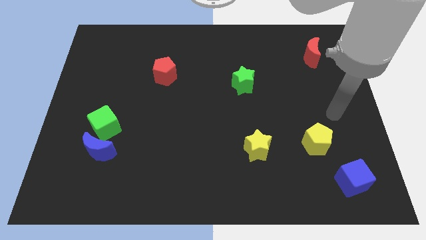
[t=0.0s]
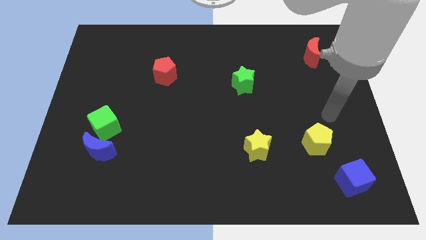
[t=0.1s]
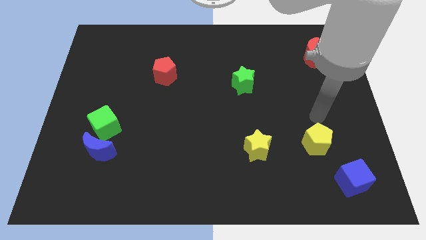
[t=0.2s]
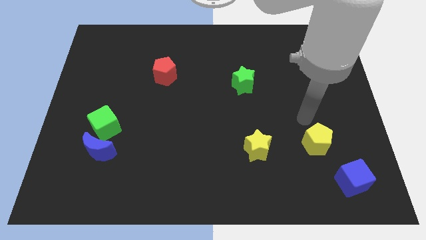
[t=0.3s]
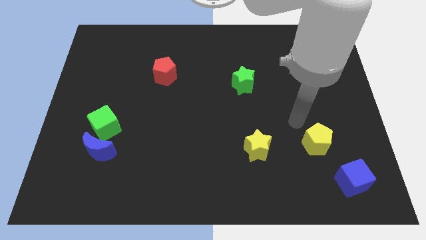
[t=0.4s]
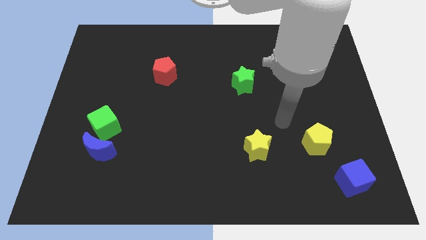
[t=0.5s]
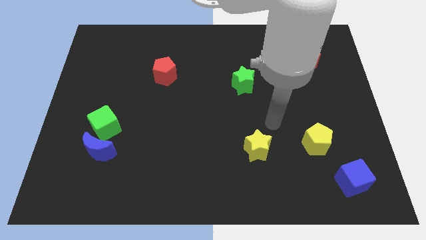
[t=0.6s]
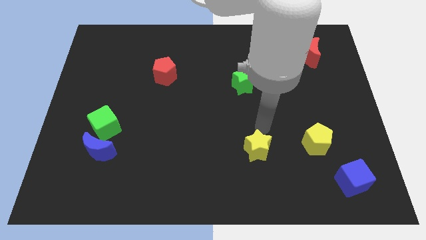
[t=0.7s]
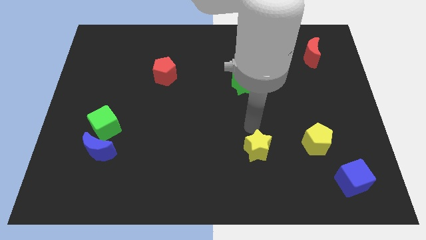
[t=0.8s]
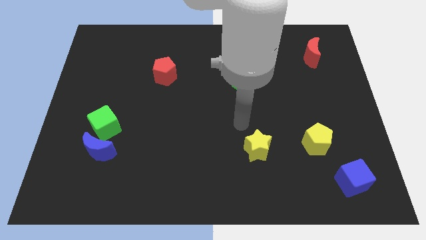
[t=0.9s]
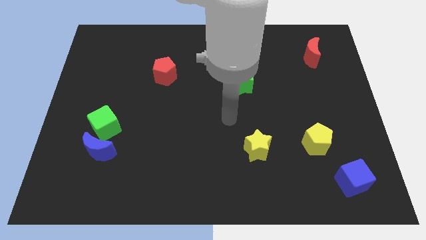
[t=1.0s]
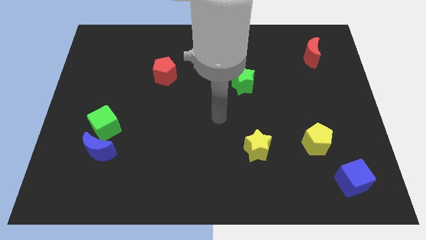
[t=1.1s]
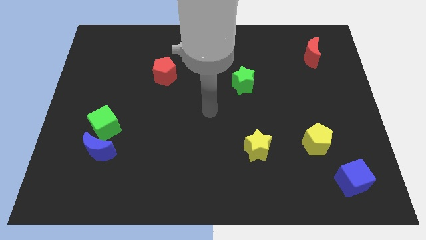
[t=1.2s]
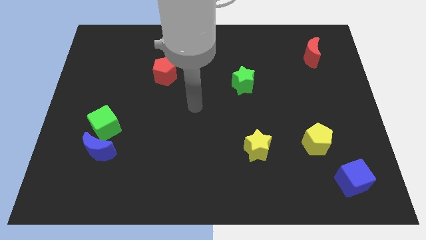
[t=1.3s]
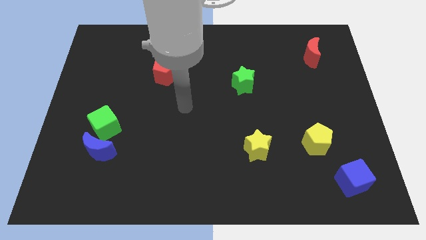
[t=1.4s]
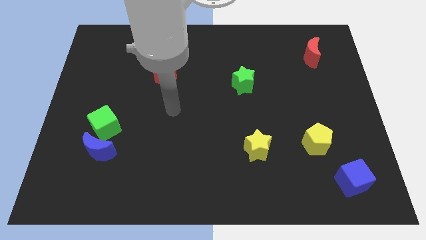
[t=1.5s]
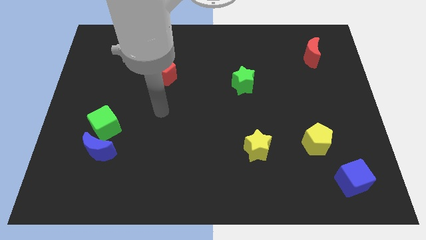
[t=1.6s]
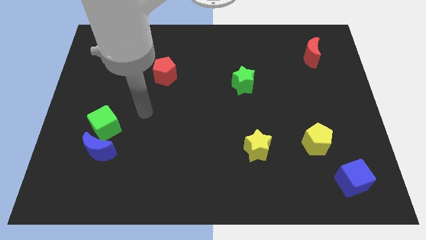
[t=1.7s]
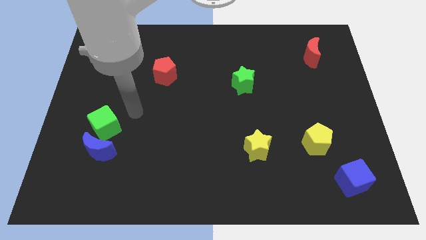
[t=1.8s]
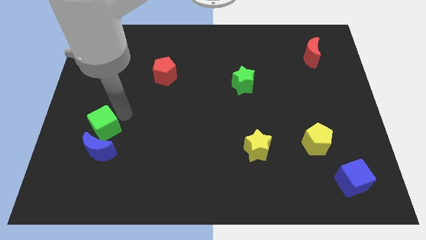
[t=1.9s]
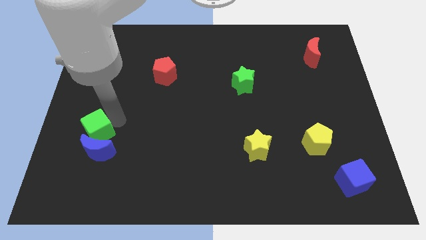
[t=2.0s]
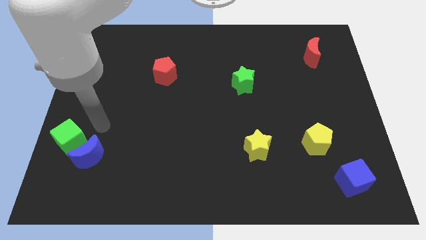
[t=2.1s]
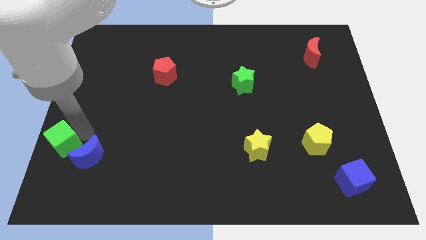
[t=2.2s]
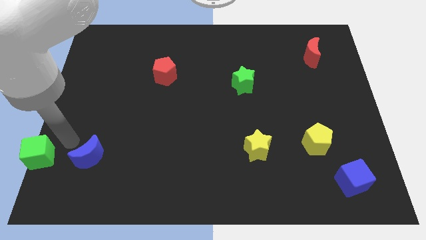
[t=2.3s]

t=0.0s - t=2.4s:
separate the blue moon from the green cube

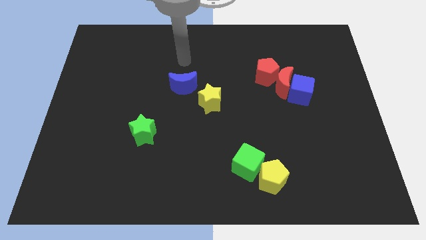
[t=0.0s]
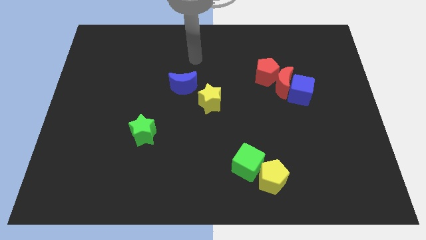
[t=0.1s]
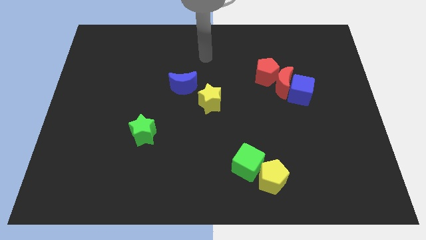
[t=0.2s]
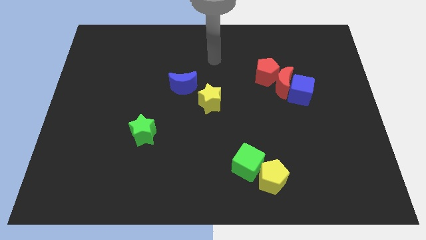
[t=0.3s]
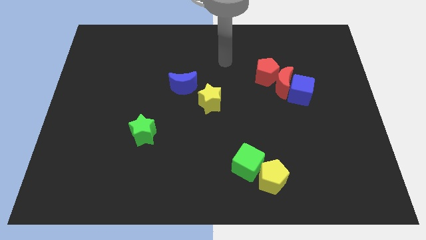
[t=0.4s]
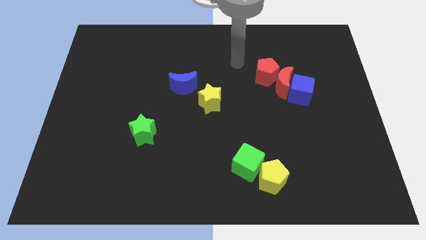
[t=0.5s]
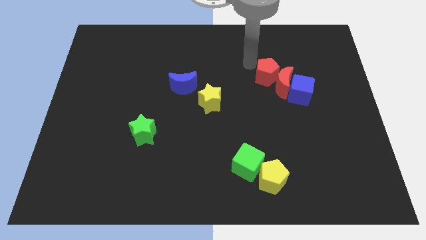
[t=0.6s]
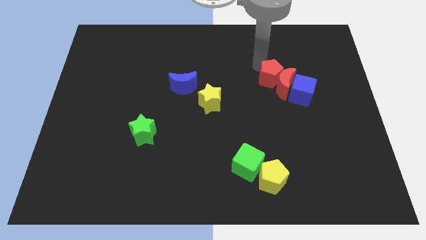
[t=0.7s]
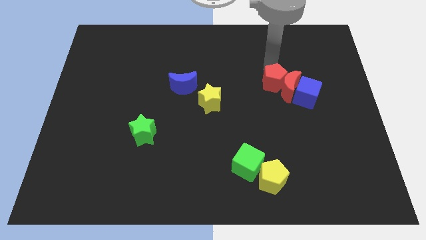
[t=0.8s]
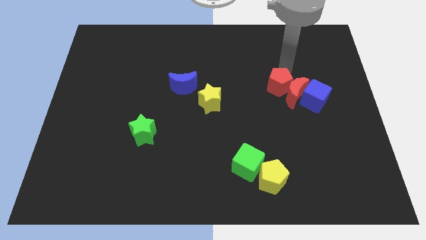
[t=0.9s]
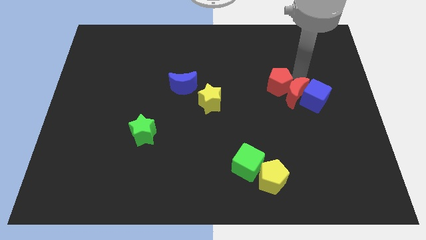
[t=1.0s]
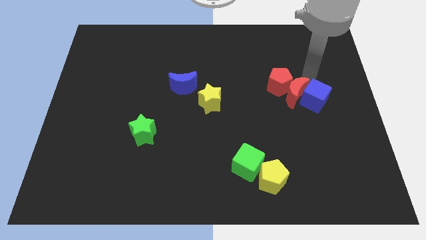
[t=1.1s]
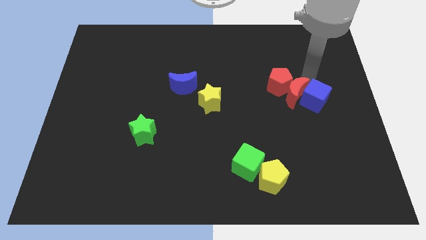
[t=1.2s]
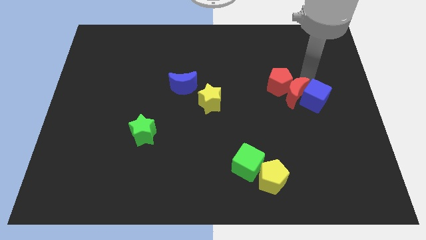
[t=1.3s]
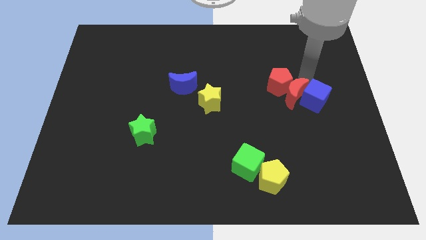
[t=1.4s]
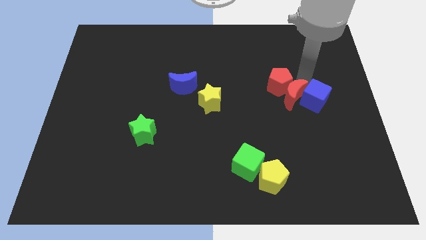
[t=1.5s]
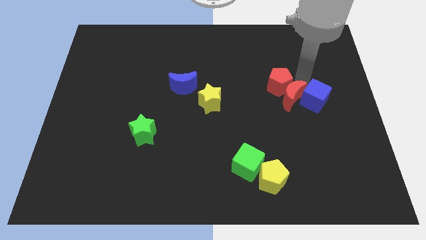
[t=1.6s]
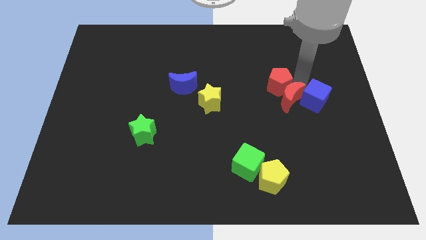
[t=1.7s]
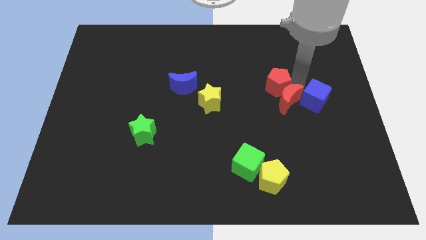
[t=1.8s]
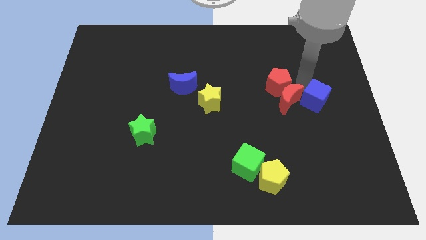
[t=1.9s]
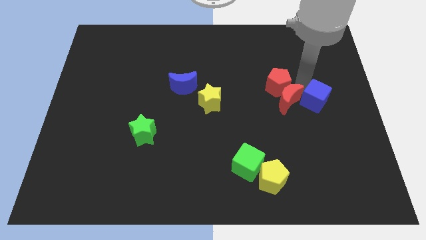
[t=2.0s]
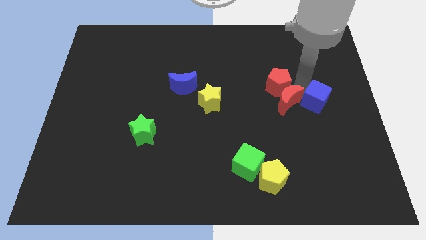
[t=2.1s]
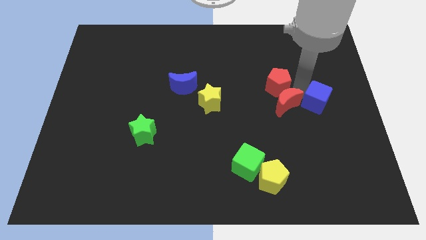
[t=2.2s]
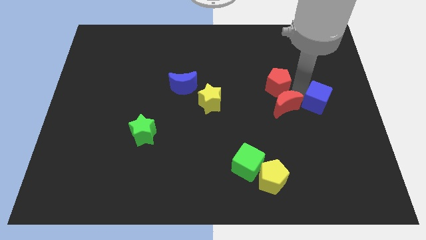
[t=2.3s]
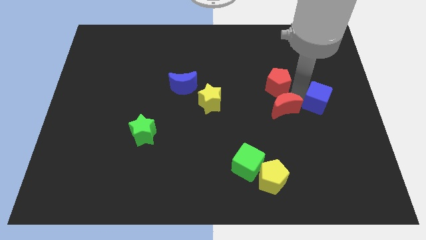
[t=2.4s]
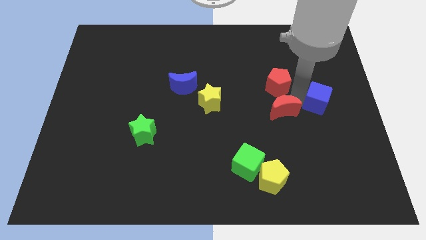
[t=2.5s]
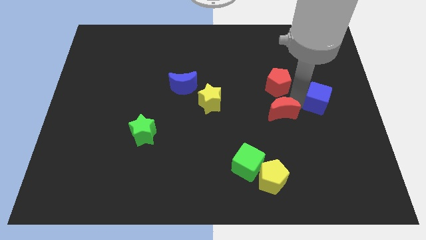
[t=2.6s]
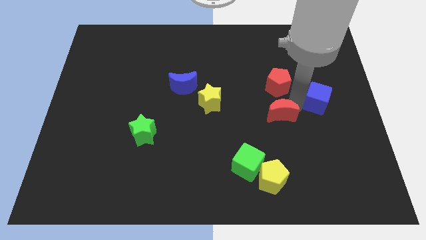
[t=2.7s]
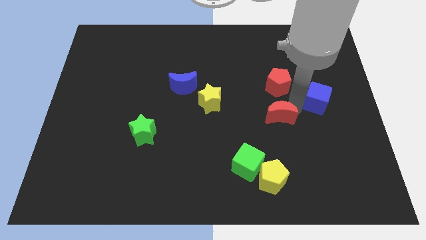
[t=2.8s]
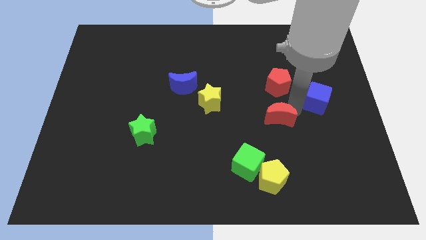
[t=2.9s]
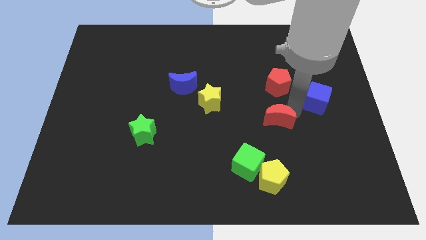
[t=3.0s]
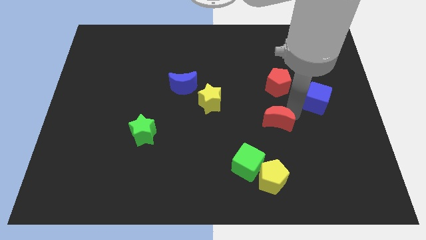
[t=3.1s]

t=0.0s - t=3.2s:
pull the red moon apart from the blue cube and red pentagon

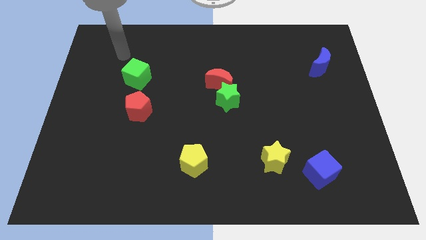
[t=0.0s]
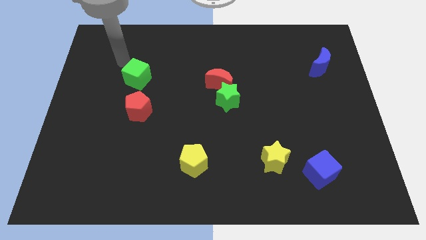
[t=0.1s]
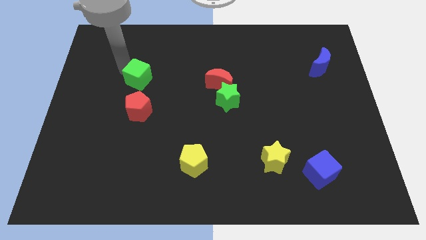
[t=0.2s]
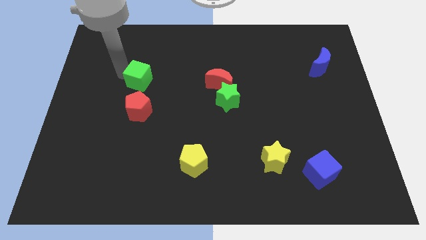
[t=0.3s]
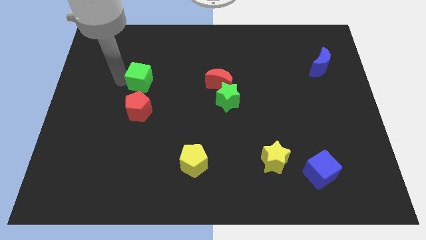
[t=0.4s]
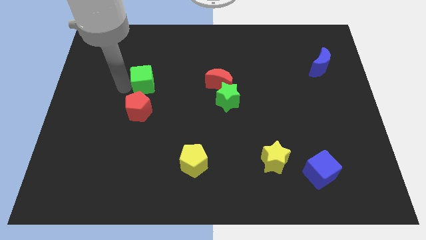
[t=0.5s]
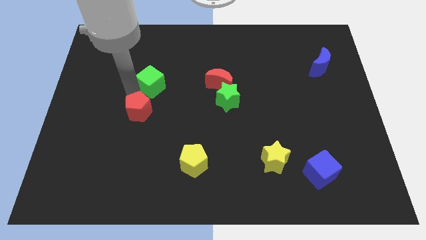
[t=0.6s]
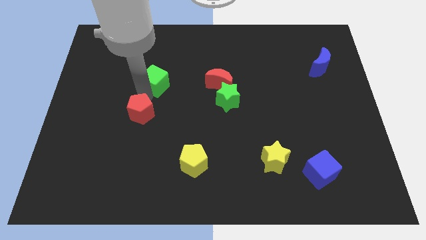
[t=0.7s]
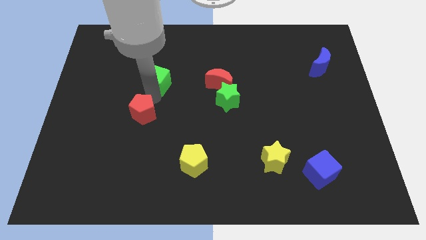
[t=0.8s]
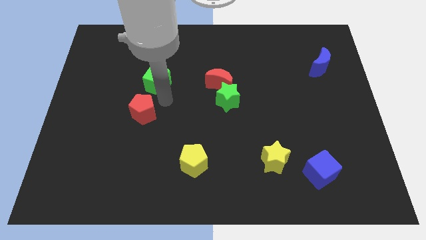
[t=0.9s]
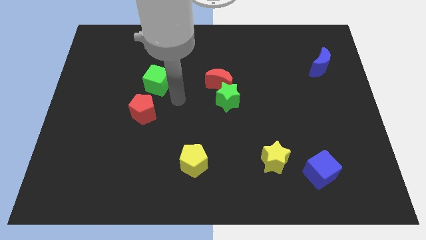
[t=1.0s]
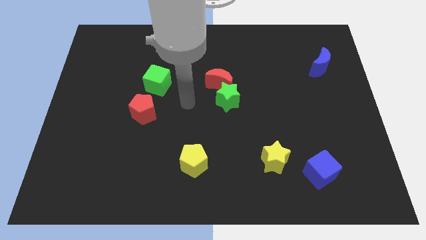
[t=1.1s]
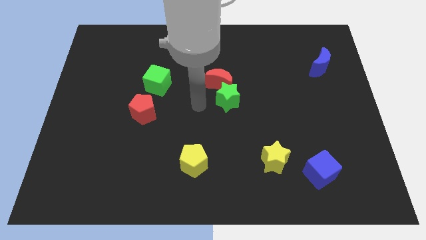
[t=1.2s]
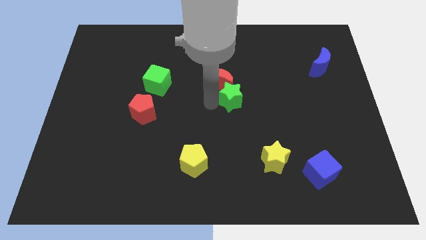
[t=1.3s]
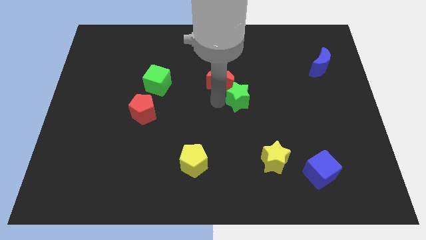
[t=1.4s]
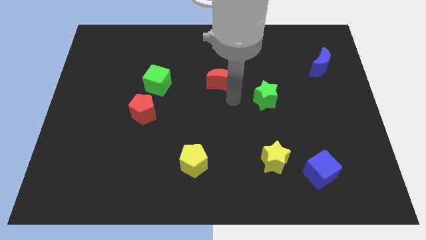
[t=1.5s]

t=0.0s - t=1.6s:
pull the red moon apart from the green star

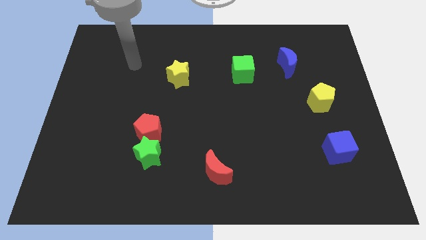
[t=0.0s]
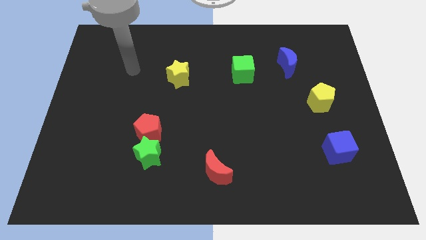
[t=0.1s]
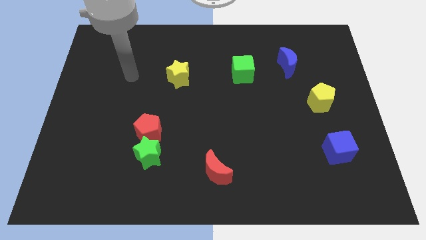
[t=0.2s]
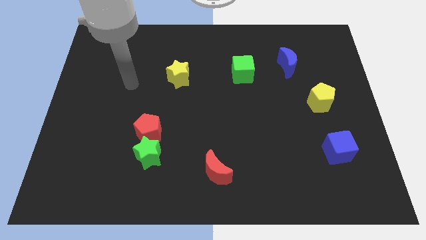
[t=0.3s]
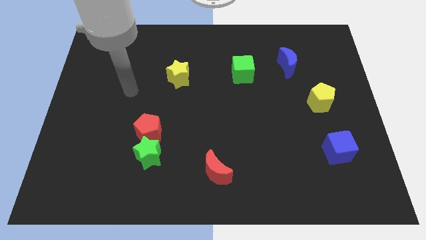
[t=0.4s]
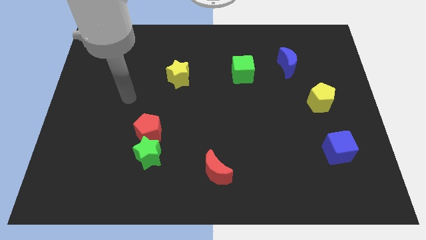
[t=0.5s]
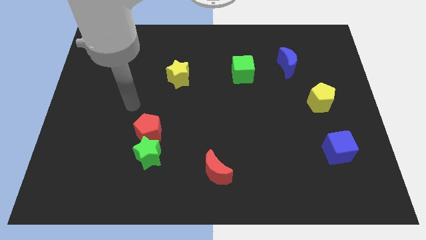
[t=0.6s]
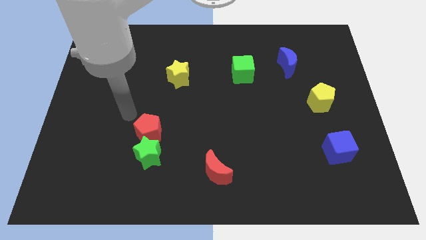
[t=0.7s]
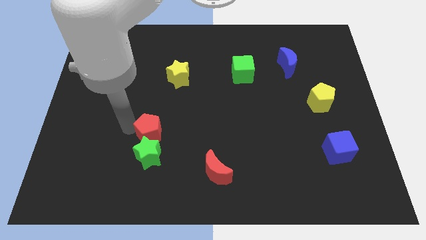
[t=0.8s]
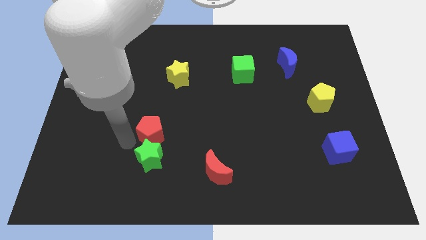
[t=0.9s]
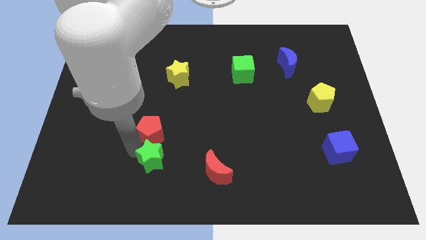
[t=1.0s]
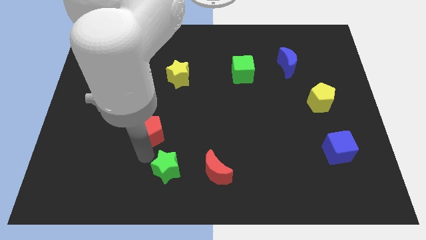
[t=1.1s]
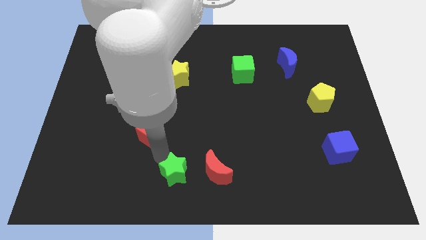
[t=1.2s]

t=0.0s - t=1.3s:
pull the red pentagon apart from the green star

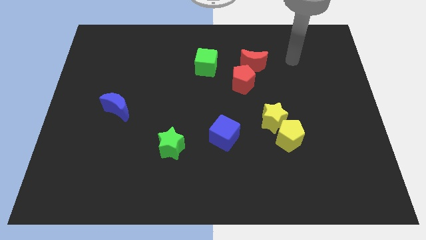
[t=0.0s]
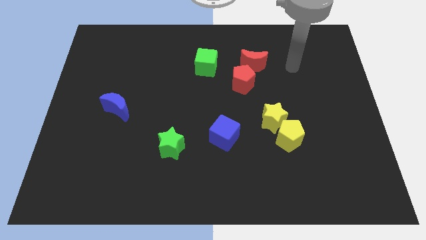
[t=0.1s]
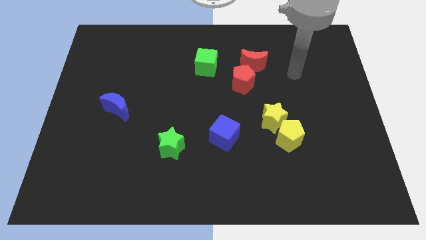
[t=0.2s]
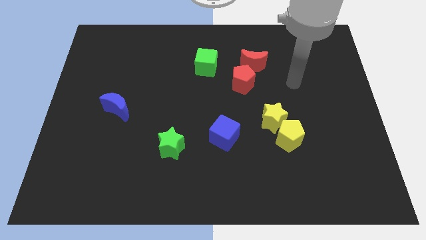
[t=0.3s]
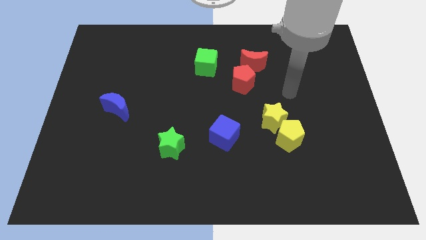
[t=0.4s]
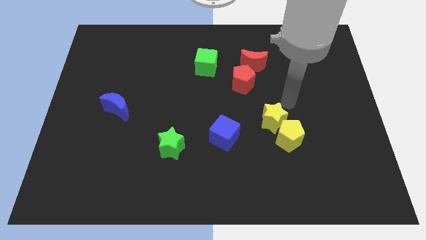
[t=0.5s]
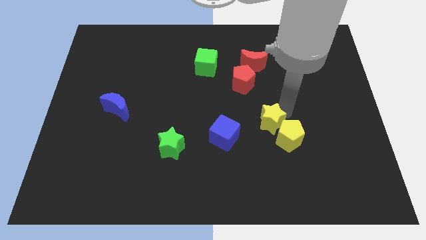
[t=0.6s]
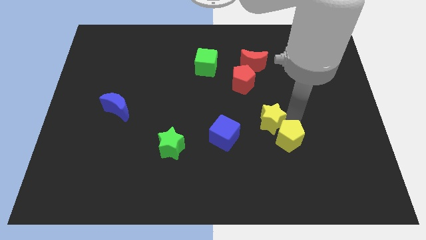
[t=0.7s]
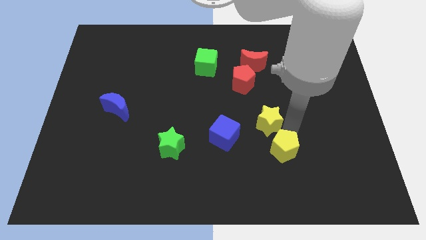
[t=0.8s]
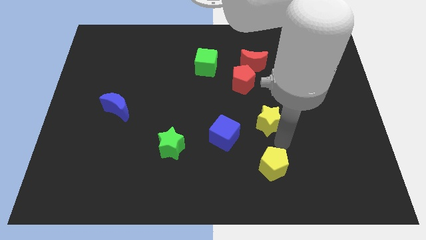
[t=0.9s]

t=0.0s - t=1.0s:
move the yellow star away from the yellow pentagon
